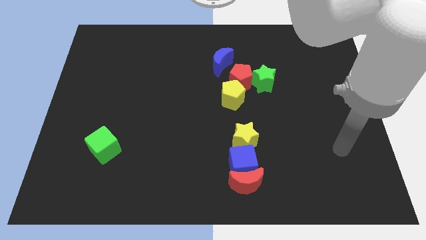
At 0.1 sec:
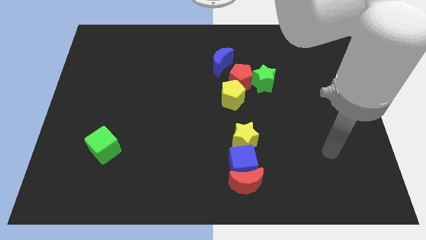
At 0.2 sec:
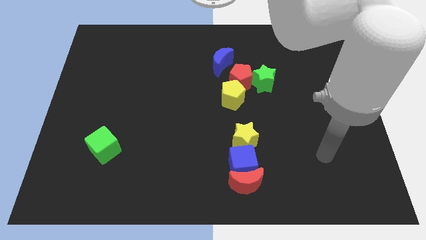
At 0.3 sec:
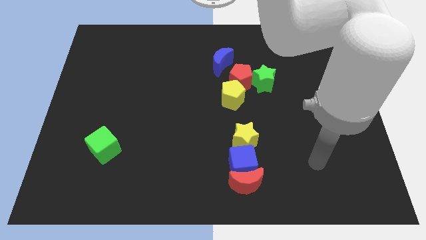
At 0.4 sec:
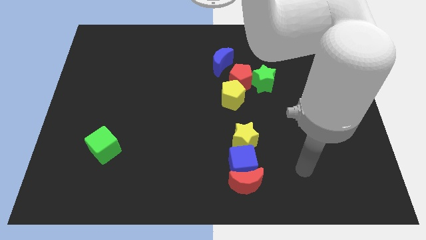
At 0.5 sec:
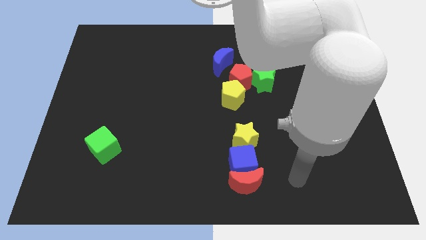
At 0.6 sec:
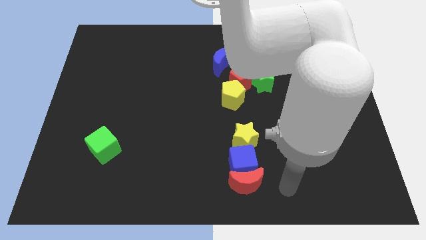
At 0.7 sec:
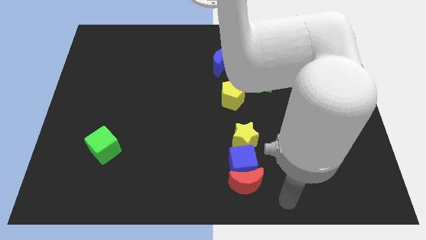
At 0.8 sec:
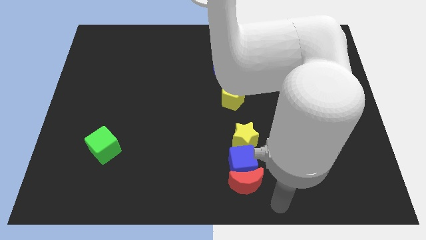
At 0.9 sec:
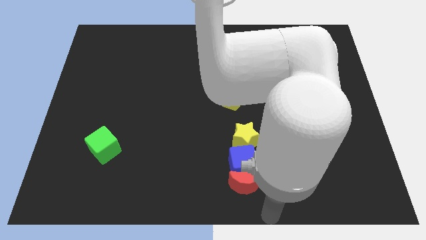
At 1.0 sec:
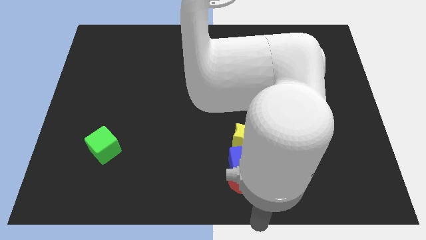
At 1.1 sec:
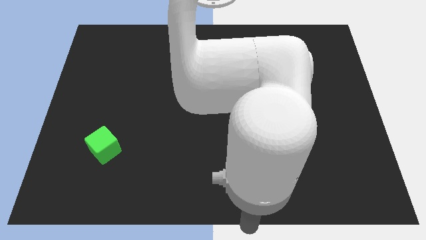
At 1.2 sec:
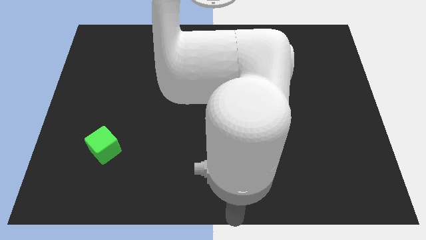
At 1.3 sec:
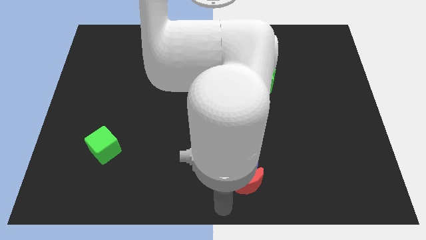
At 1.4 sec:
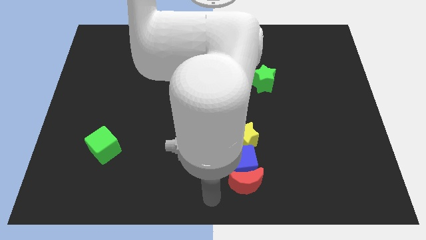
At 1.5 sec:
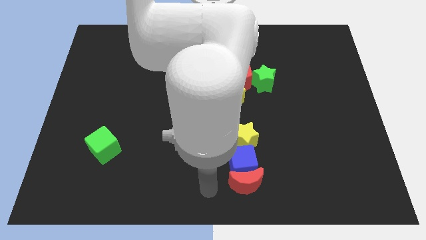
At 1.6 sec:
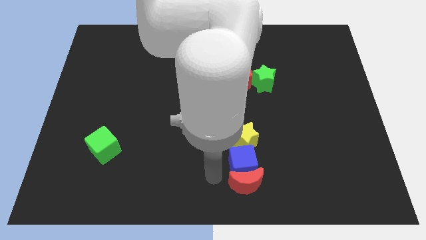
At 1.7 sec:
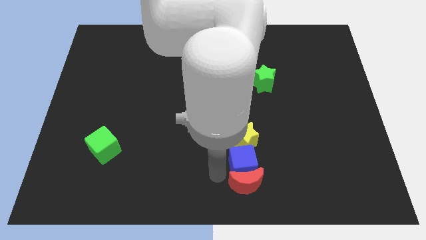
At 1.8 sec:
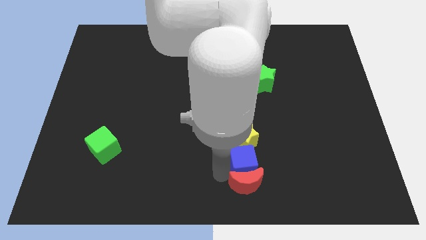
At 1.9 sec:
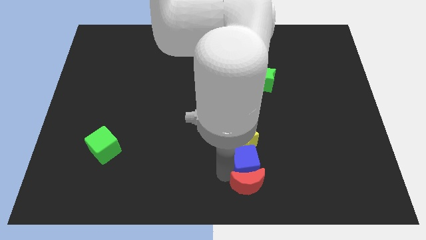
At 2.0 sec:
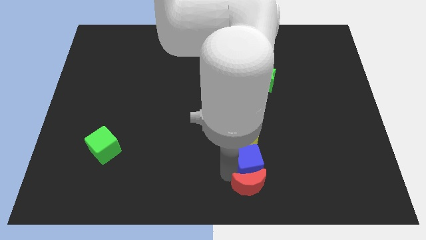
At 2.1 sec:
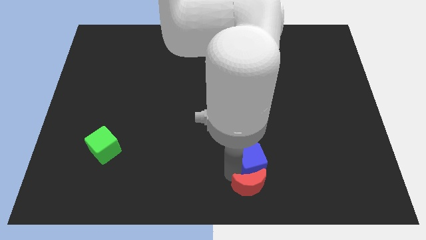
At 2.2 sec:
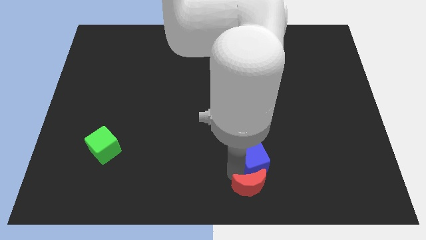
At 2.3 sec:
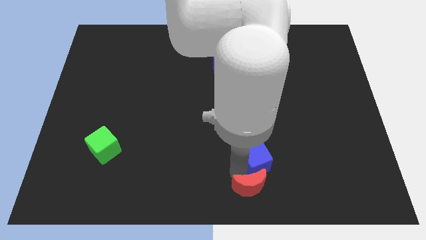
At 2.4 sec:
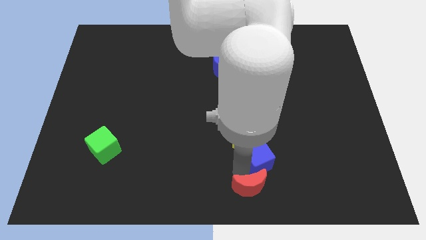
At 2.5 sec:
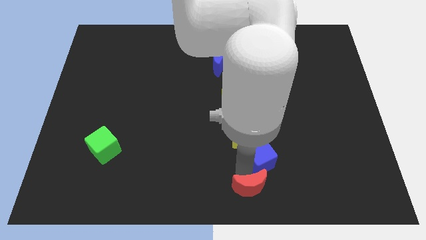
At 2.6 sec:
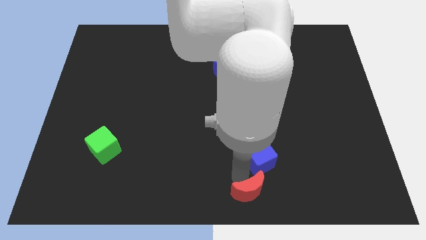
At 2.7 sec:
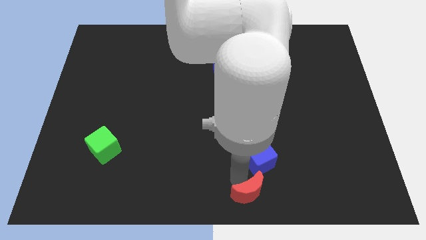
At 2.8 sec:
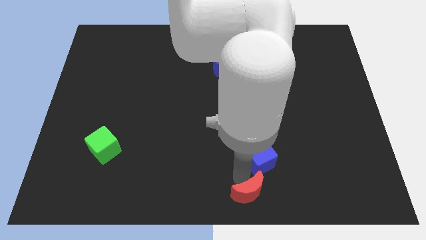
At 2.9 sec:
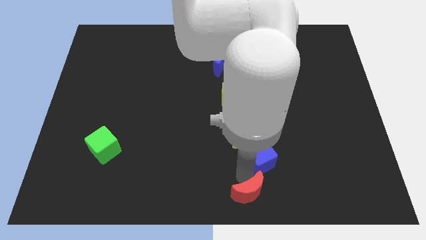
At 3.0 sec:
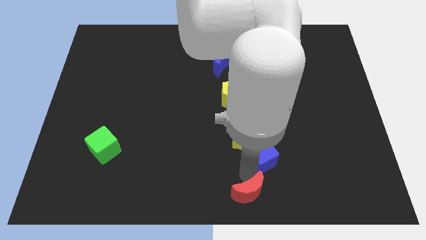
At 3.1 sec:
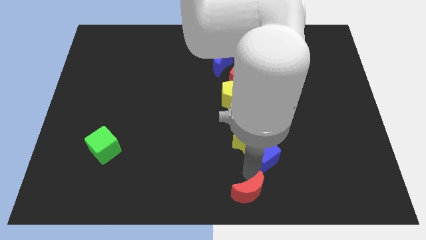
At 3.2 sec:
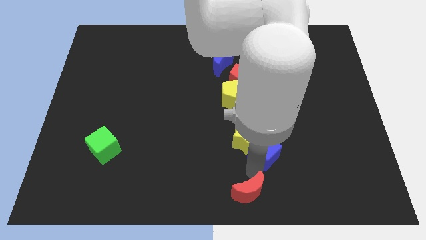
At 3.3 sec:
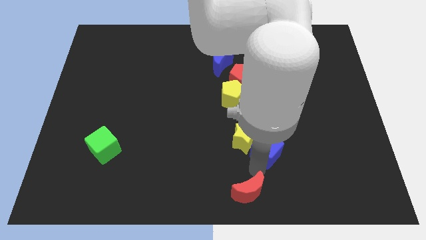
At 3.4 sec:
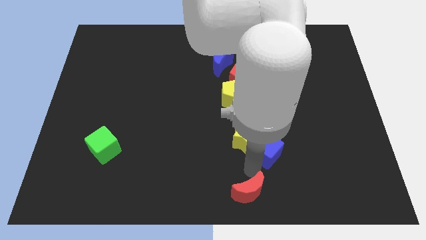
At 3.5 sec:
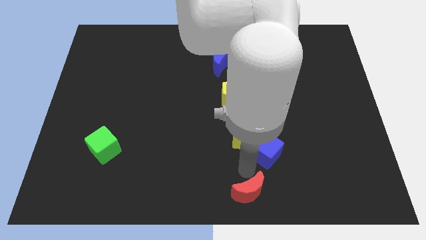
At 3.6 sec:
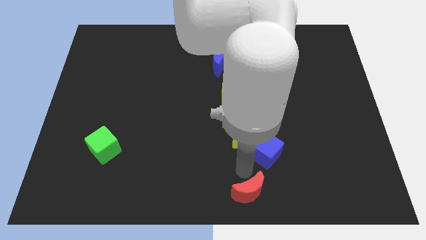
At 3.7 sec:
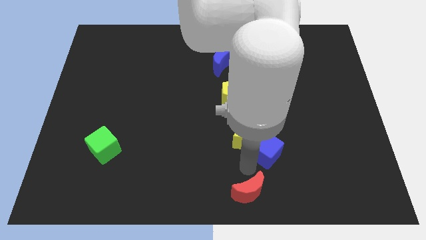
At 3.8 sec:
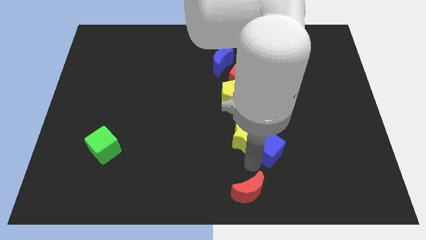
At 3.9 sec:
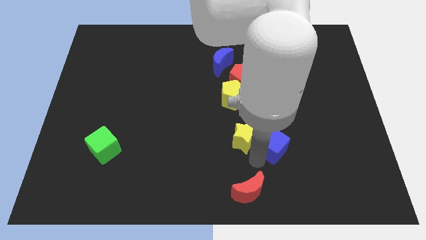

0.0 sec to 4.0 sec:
slightly move the blue cube upwards and then right

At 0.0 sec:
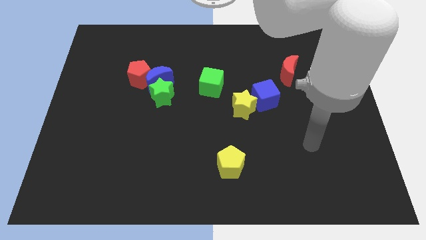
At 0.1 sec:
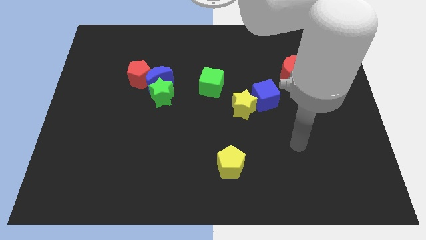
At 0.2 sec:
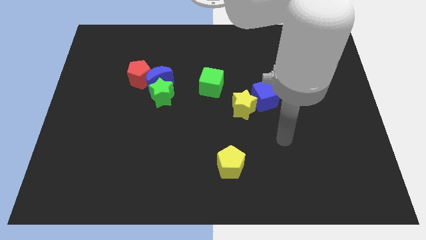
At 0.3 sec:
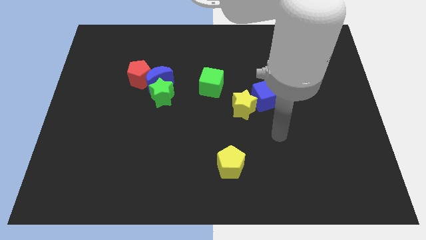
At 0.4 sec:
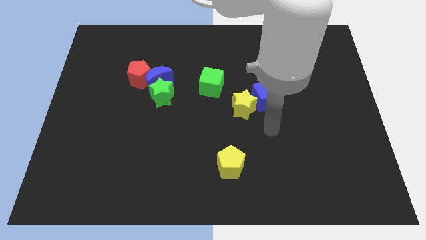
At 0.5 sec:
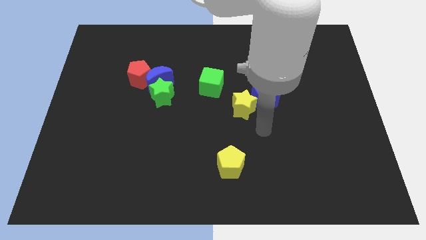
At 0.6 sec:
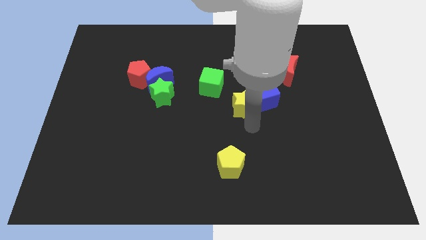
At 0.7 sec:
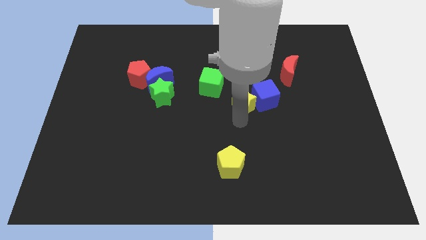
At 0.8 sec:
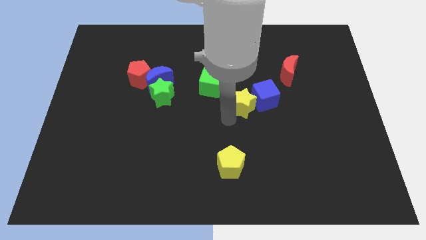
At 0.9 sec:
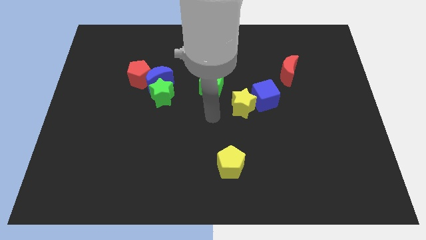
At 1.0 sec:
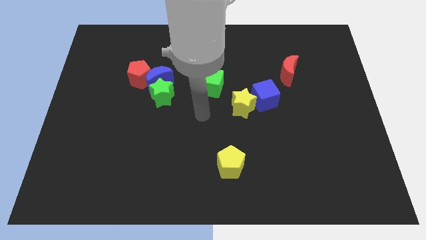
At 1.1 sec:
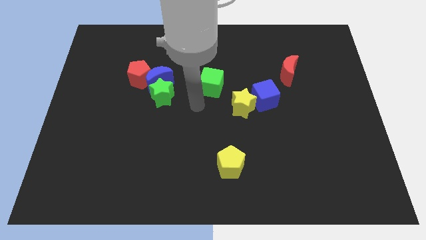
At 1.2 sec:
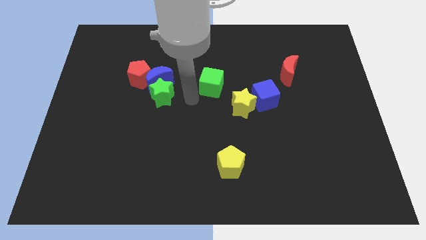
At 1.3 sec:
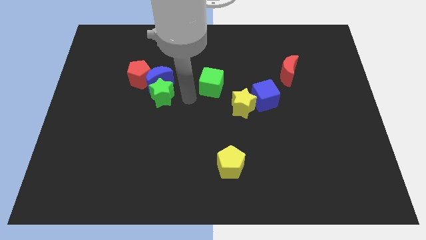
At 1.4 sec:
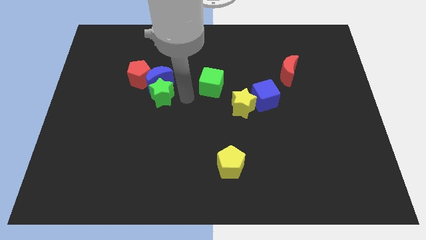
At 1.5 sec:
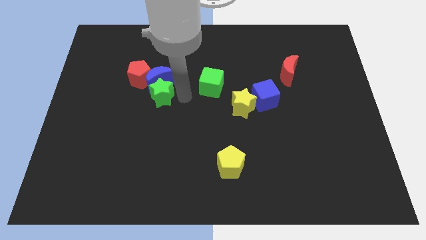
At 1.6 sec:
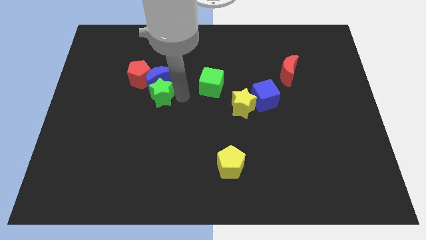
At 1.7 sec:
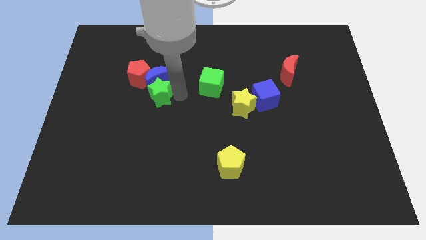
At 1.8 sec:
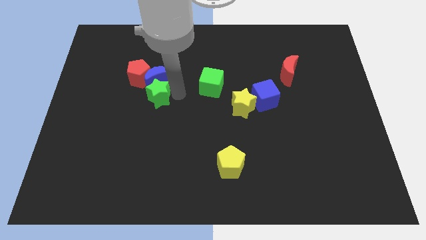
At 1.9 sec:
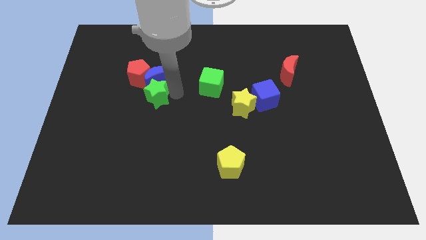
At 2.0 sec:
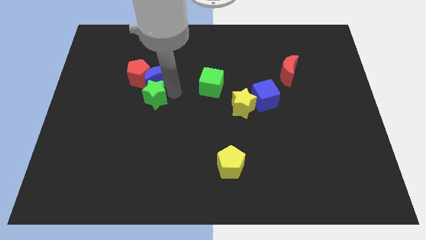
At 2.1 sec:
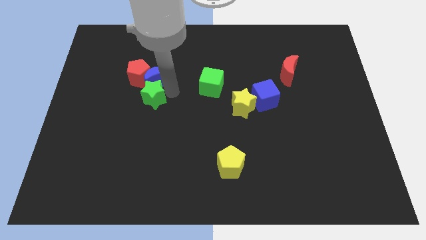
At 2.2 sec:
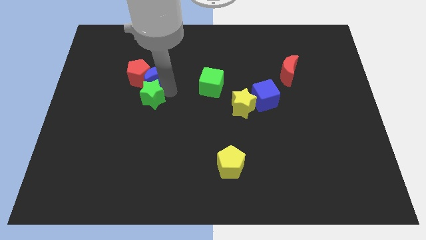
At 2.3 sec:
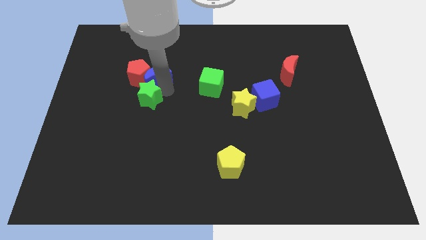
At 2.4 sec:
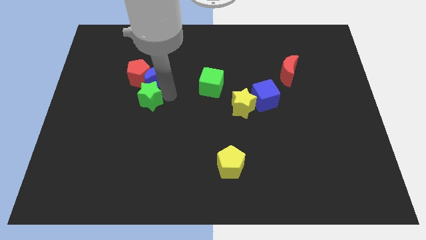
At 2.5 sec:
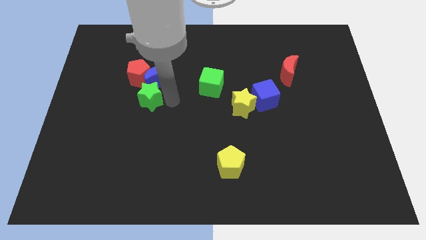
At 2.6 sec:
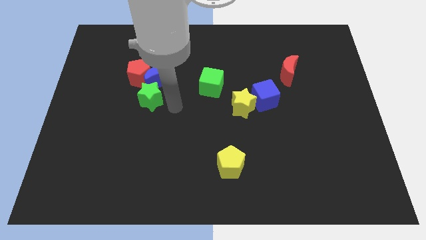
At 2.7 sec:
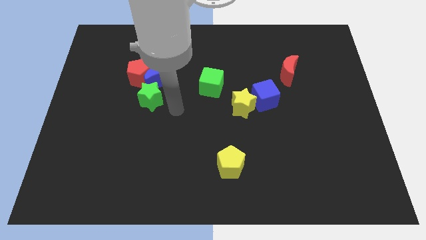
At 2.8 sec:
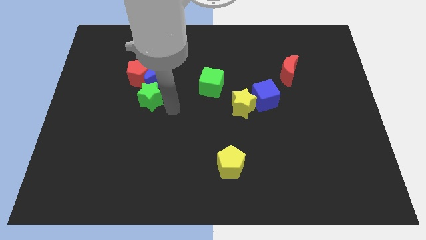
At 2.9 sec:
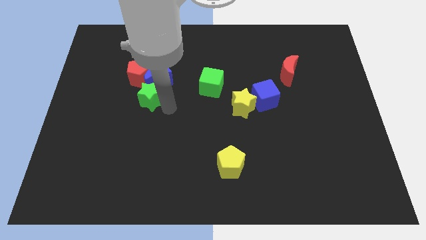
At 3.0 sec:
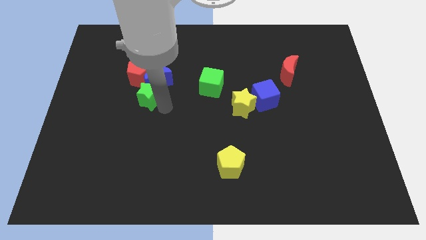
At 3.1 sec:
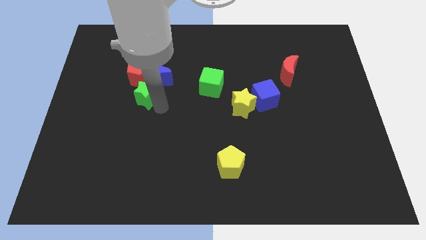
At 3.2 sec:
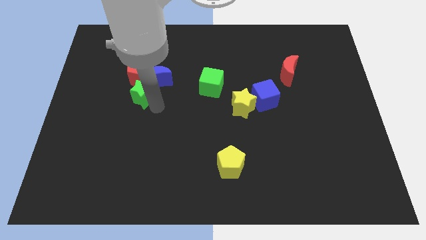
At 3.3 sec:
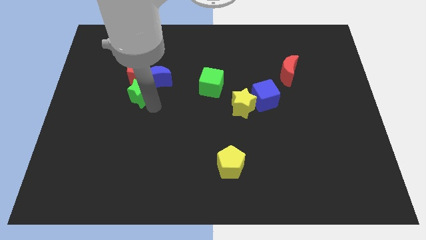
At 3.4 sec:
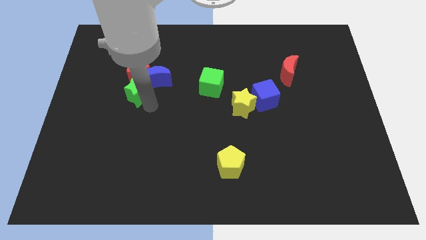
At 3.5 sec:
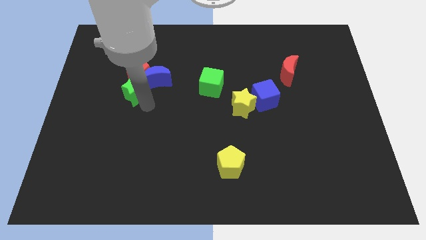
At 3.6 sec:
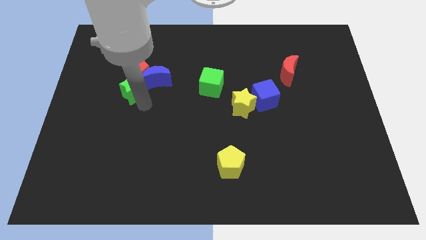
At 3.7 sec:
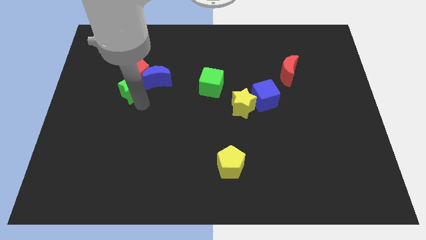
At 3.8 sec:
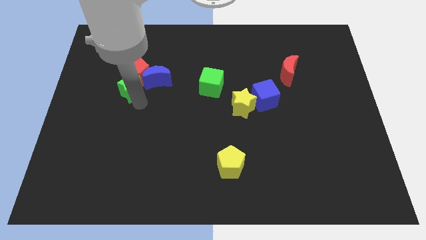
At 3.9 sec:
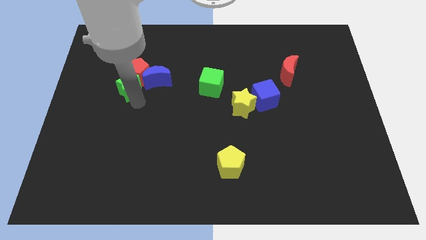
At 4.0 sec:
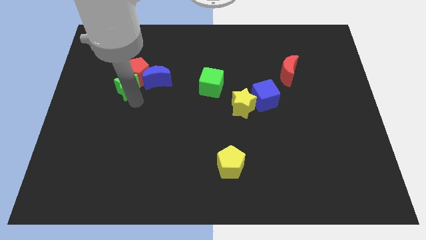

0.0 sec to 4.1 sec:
slide the green star somewhat up and to the left diagonally

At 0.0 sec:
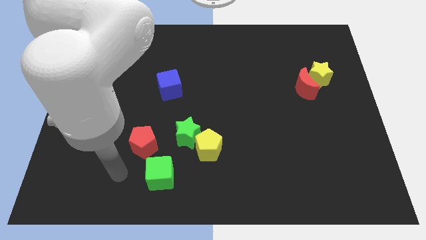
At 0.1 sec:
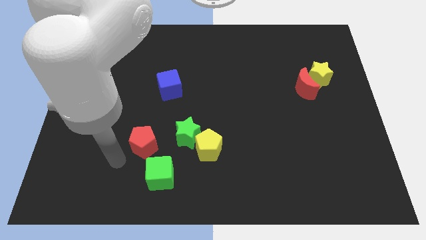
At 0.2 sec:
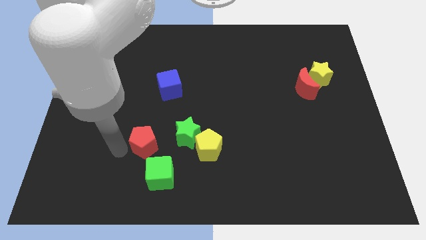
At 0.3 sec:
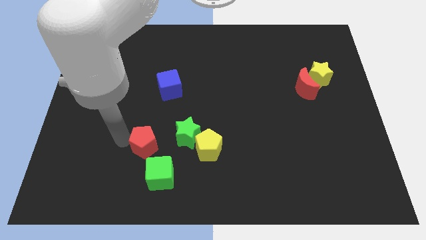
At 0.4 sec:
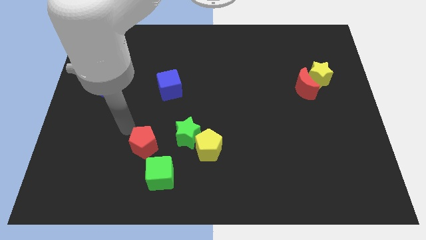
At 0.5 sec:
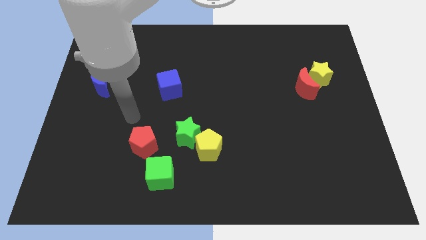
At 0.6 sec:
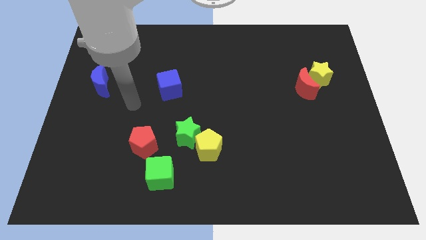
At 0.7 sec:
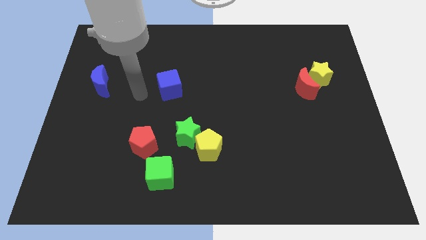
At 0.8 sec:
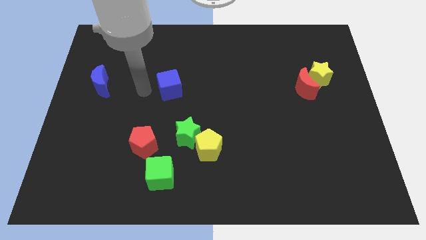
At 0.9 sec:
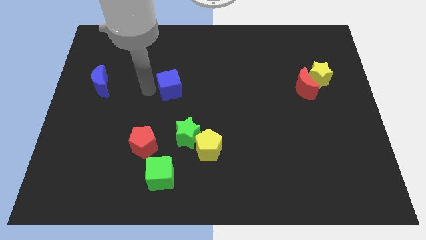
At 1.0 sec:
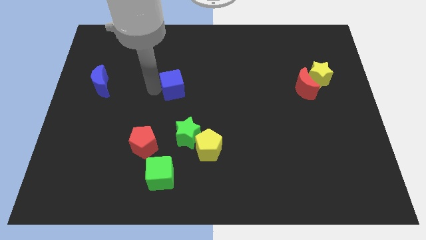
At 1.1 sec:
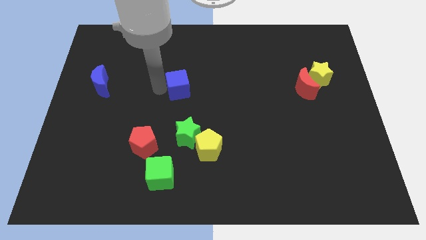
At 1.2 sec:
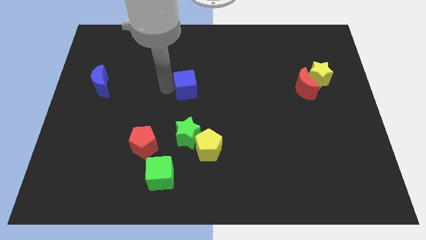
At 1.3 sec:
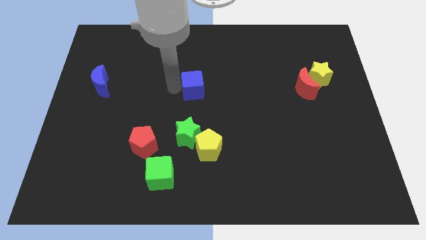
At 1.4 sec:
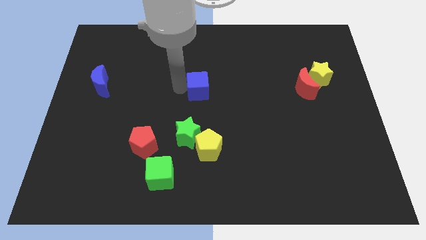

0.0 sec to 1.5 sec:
slightly slide the blue cube to the right
